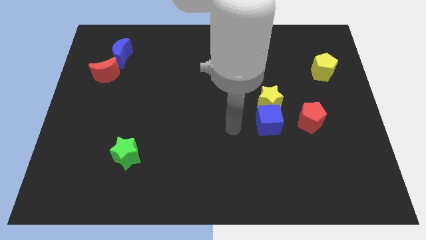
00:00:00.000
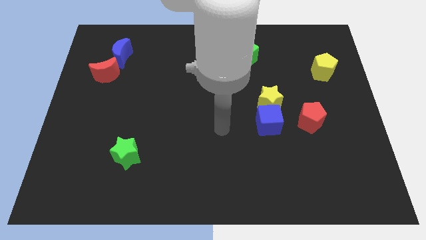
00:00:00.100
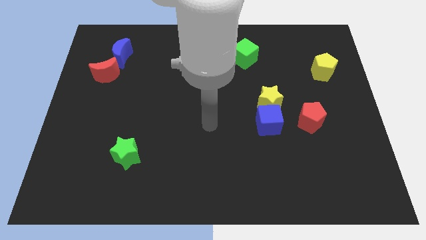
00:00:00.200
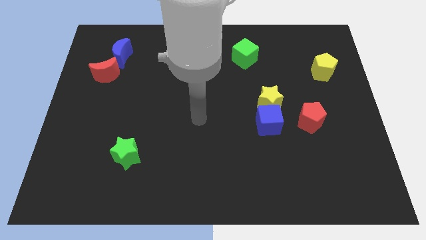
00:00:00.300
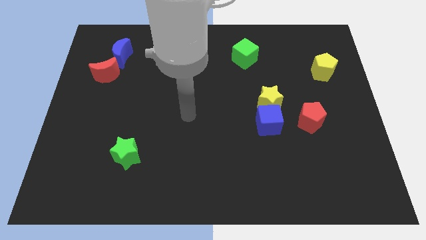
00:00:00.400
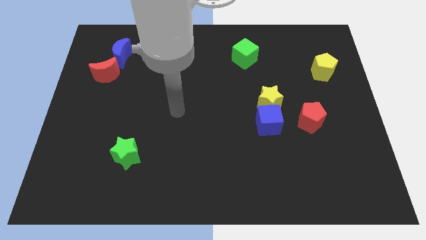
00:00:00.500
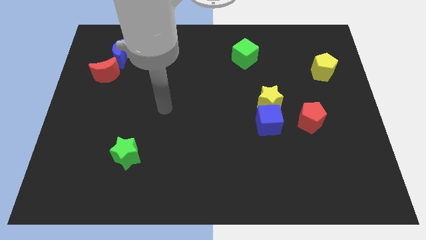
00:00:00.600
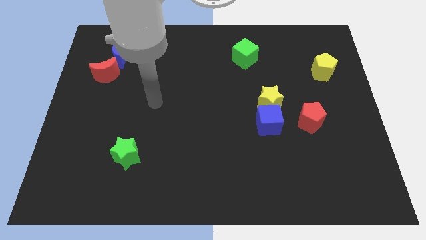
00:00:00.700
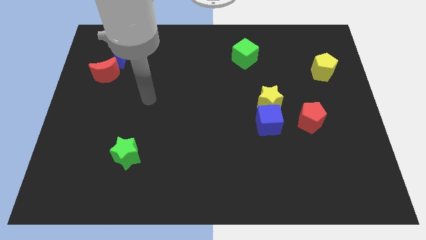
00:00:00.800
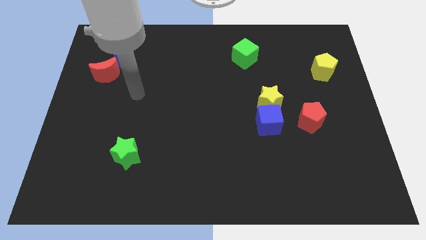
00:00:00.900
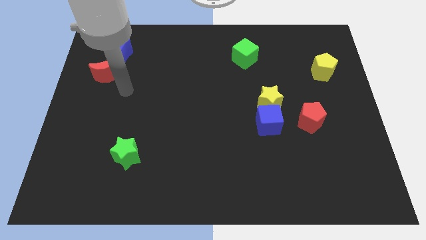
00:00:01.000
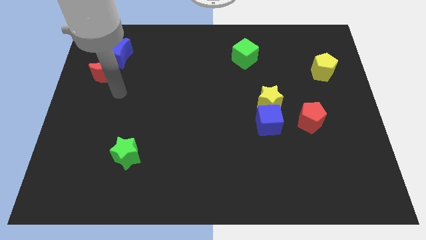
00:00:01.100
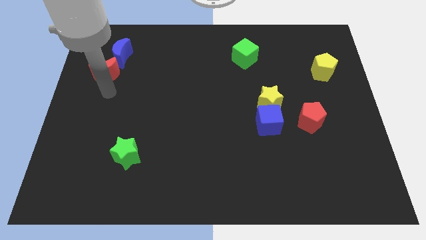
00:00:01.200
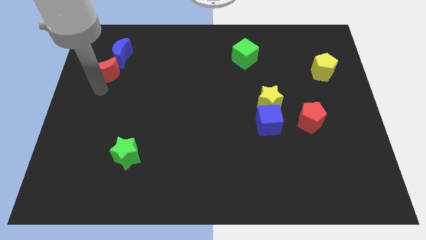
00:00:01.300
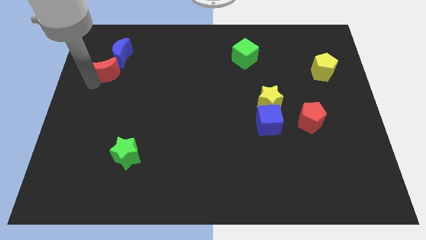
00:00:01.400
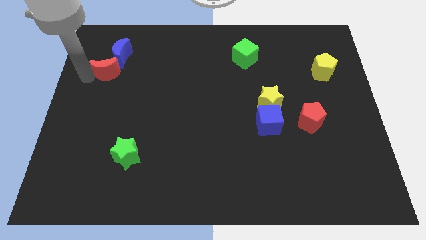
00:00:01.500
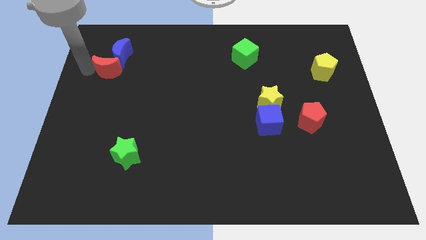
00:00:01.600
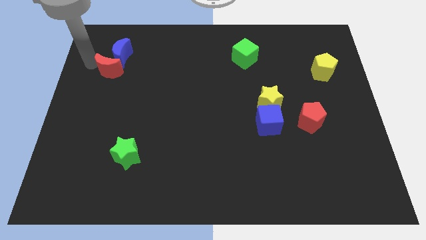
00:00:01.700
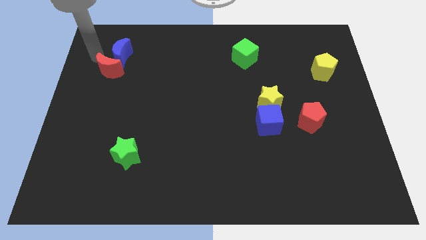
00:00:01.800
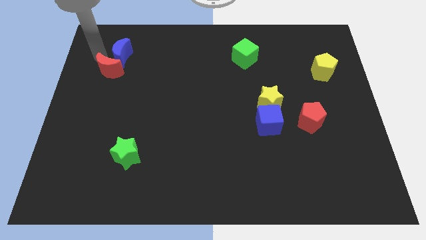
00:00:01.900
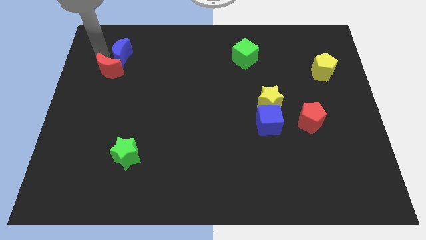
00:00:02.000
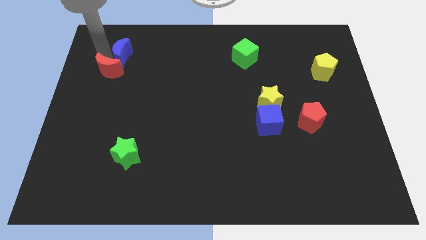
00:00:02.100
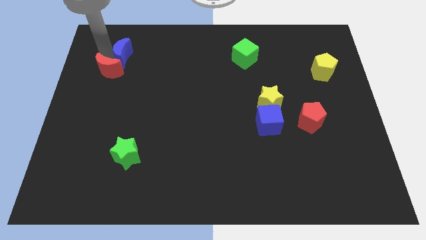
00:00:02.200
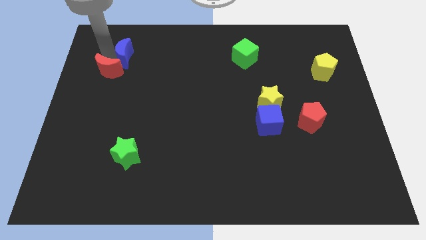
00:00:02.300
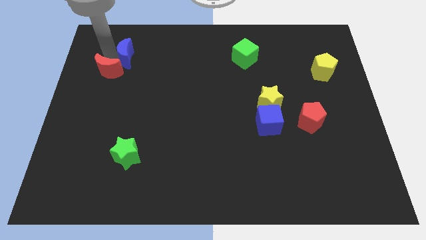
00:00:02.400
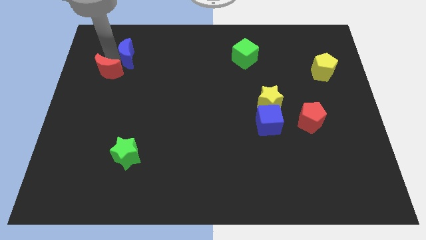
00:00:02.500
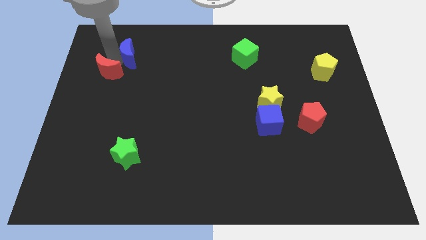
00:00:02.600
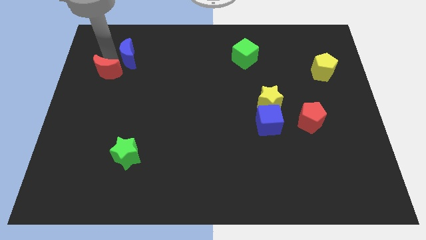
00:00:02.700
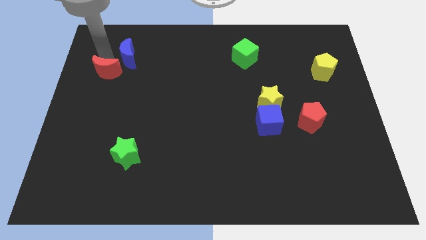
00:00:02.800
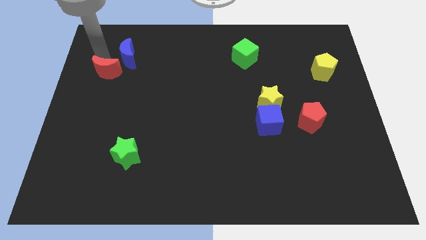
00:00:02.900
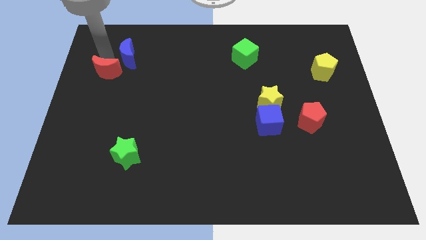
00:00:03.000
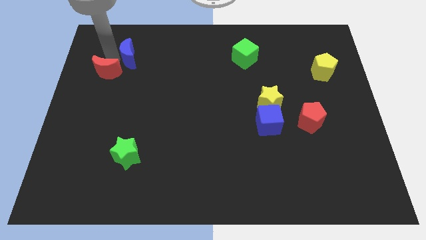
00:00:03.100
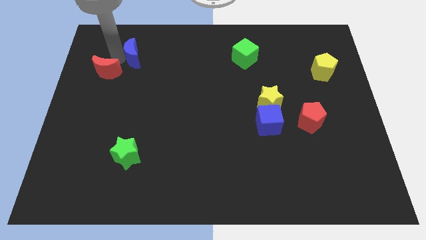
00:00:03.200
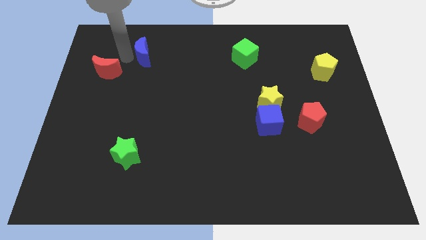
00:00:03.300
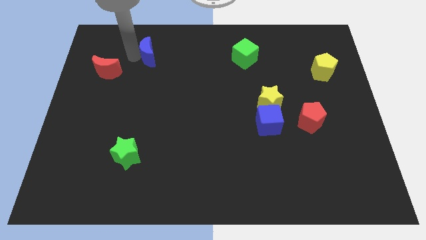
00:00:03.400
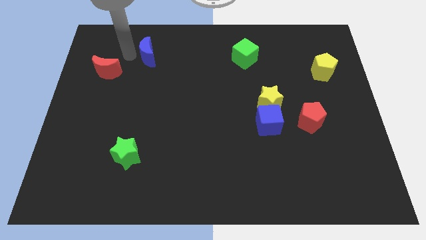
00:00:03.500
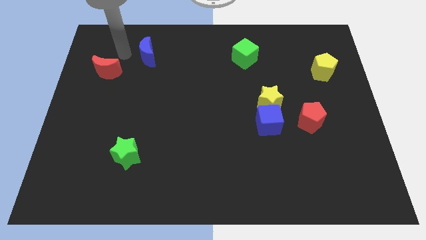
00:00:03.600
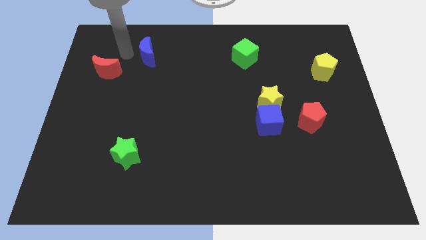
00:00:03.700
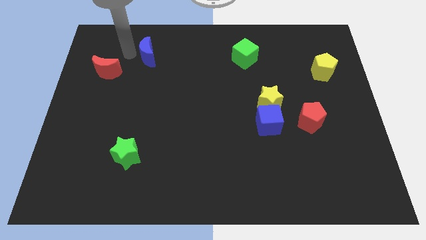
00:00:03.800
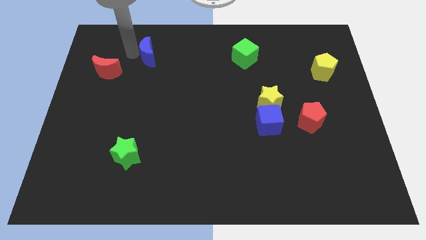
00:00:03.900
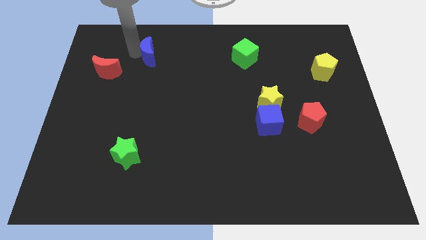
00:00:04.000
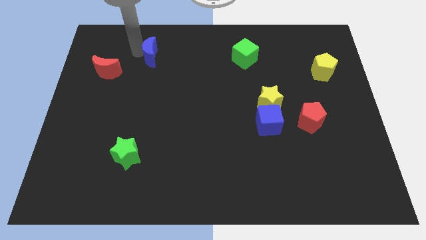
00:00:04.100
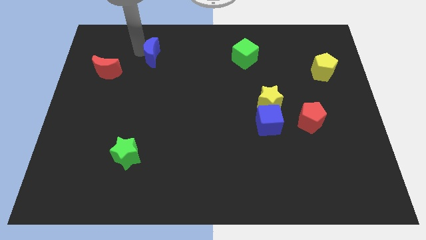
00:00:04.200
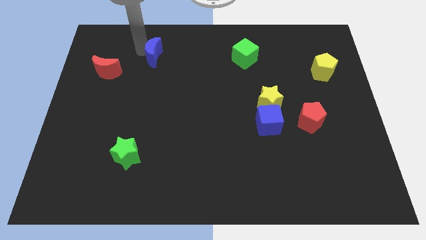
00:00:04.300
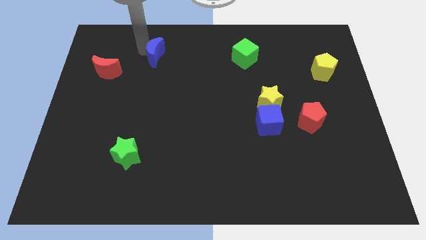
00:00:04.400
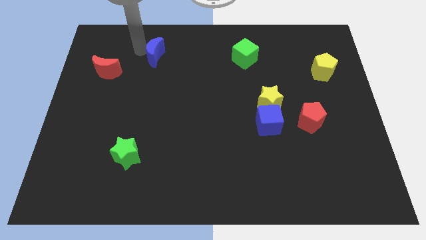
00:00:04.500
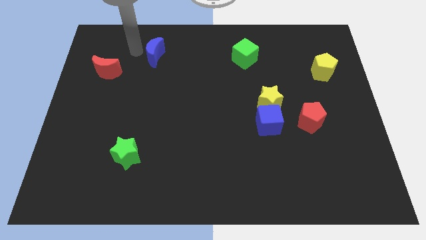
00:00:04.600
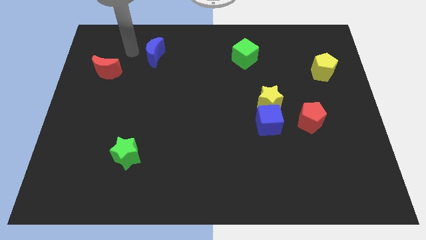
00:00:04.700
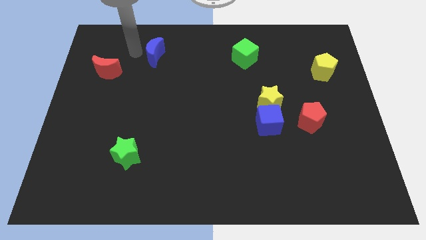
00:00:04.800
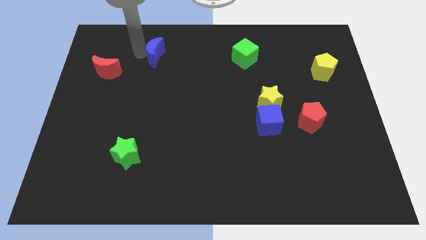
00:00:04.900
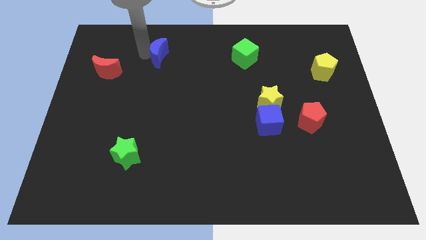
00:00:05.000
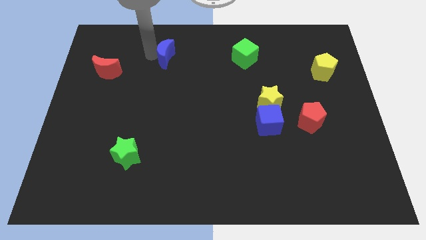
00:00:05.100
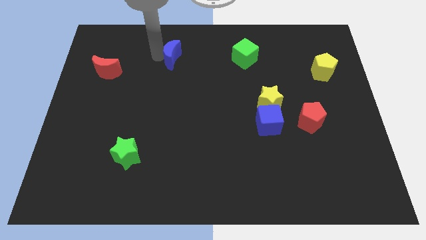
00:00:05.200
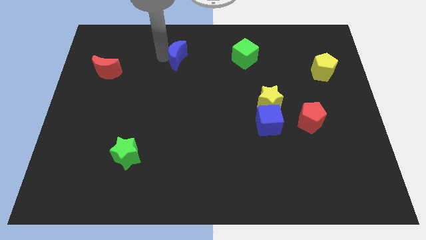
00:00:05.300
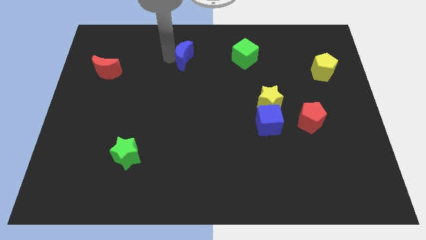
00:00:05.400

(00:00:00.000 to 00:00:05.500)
slide the blue moon just left of the green cube

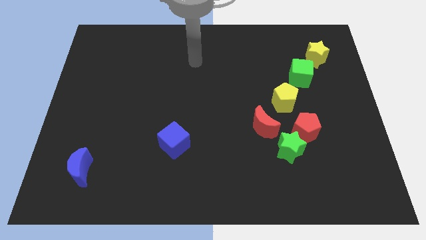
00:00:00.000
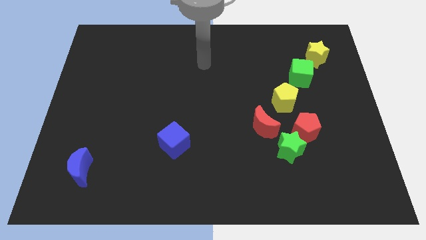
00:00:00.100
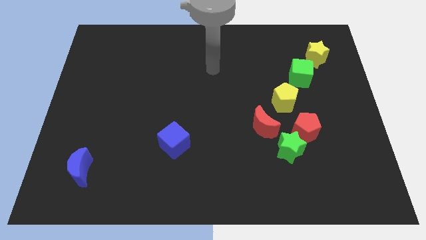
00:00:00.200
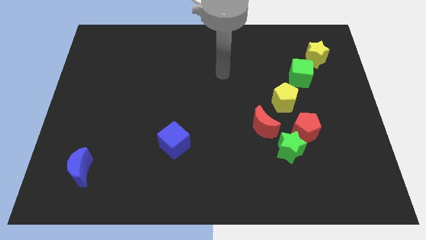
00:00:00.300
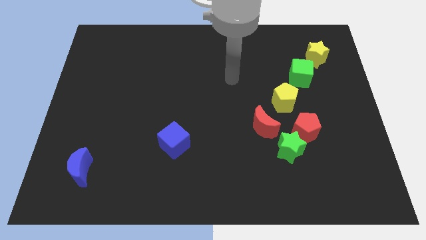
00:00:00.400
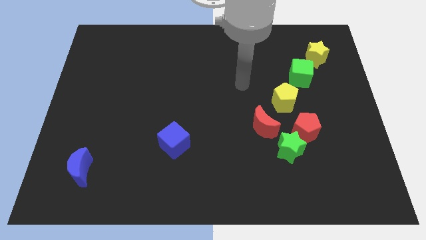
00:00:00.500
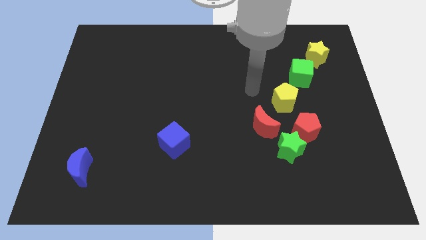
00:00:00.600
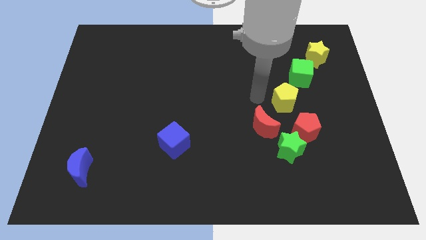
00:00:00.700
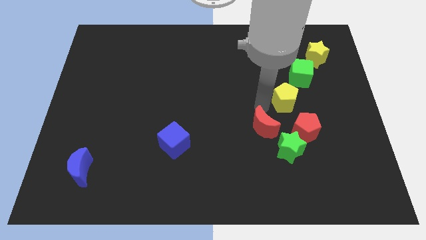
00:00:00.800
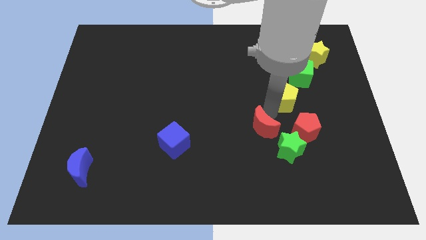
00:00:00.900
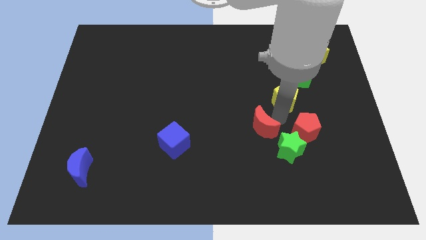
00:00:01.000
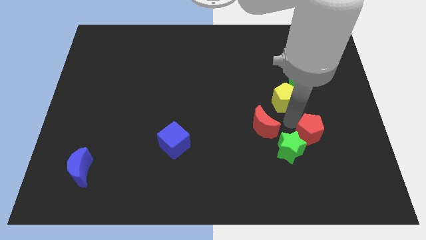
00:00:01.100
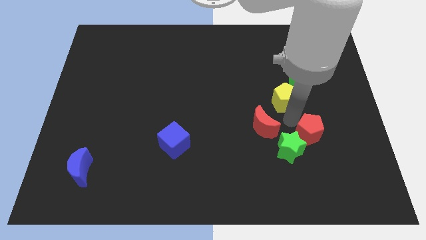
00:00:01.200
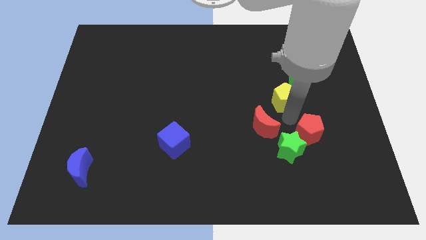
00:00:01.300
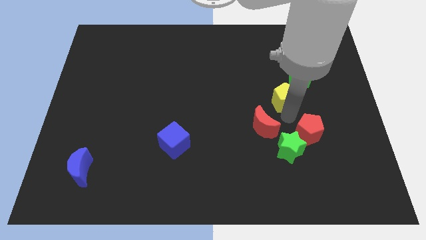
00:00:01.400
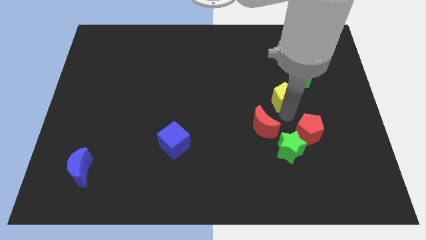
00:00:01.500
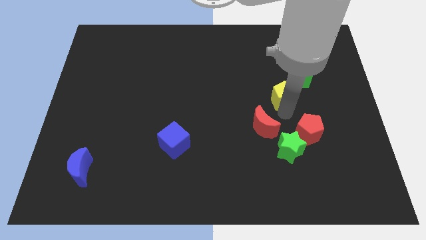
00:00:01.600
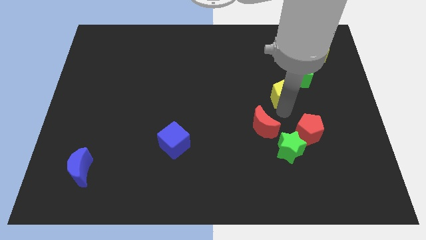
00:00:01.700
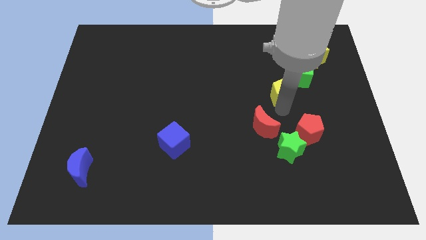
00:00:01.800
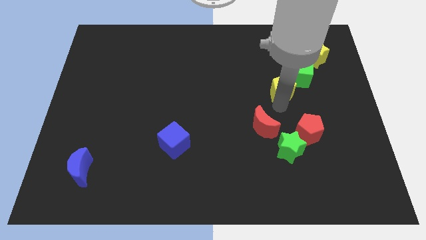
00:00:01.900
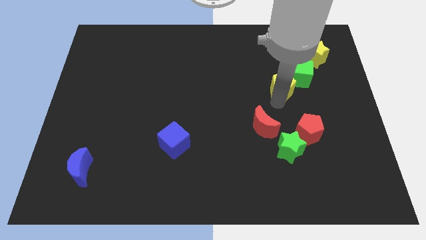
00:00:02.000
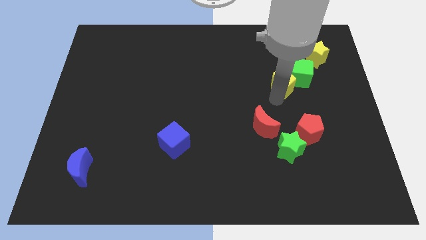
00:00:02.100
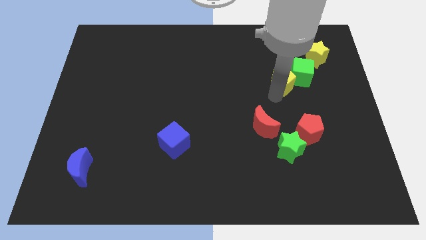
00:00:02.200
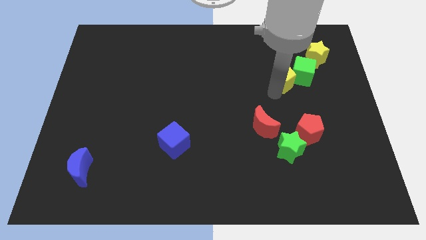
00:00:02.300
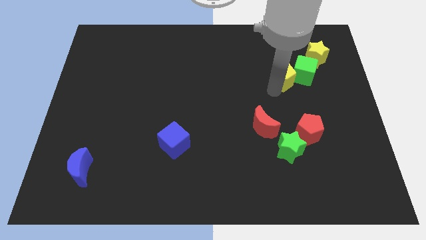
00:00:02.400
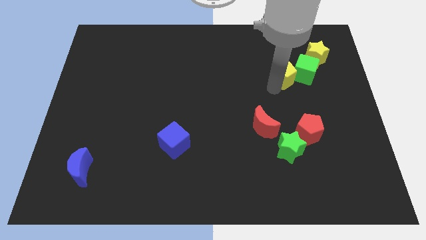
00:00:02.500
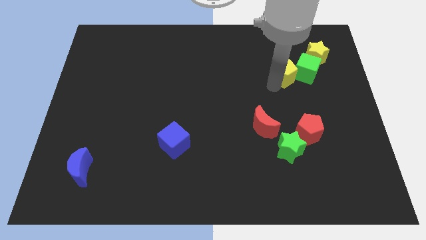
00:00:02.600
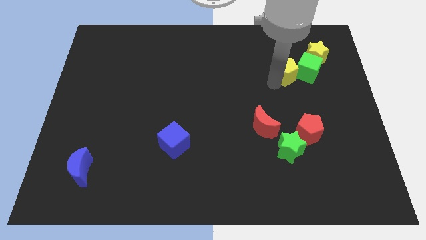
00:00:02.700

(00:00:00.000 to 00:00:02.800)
slide the yellow pentagon to the top left of the green cube
